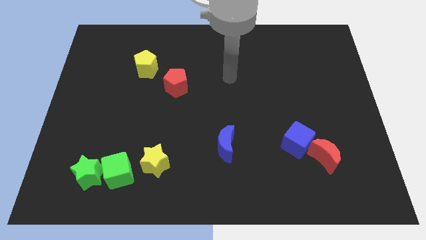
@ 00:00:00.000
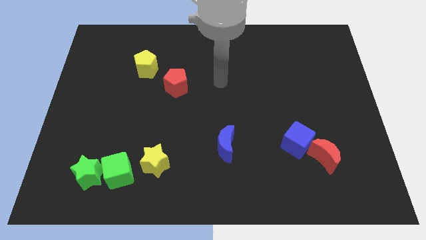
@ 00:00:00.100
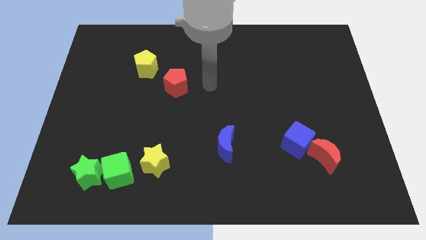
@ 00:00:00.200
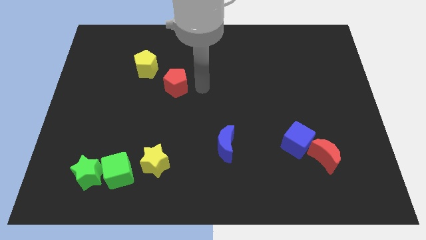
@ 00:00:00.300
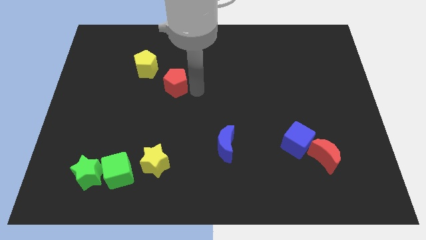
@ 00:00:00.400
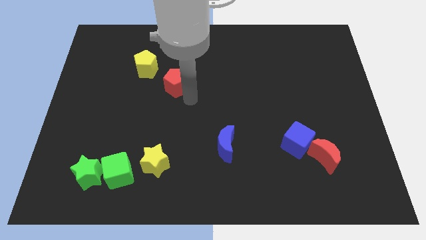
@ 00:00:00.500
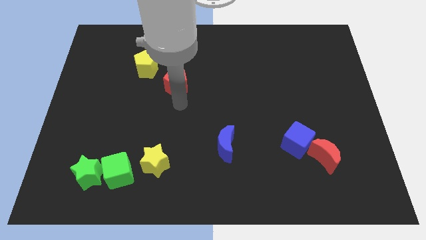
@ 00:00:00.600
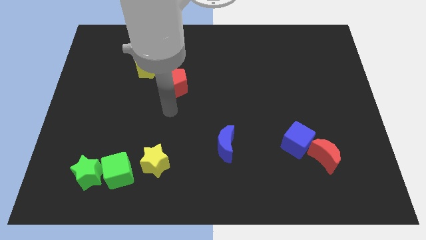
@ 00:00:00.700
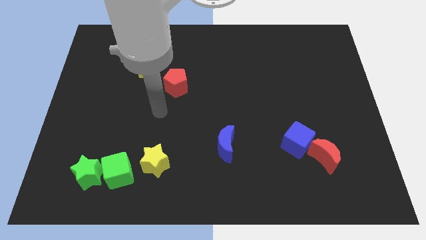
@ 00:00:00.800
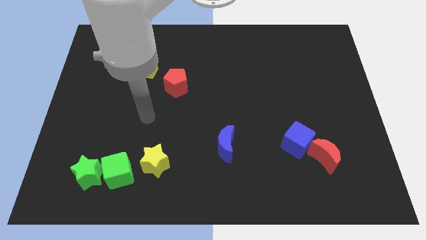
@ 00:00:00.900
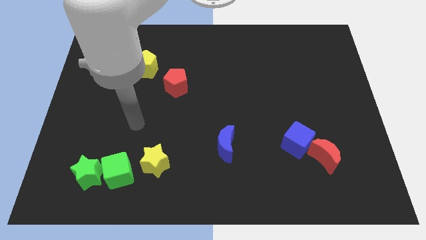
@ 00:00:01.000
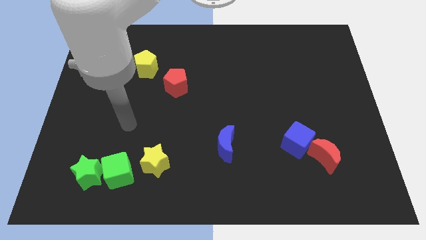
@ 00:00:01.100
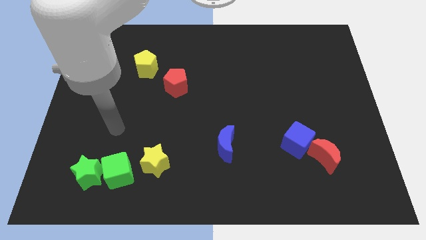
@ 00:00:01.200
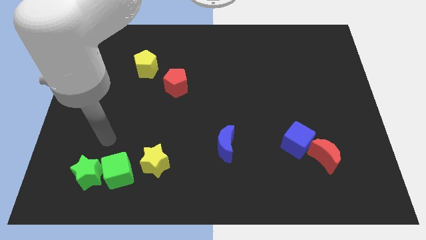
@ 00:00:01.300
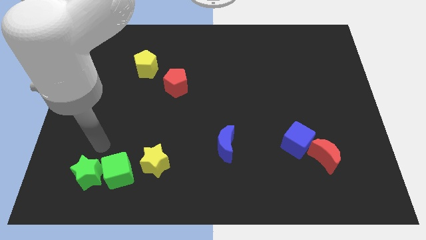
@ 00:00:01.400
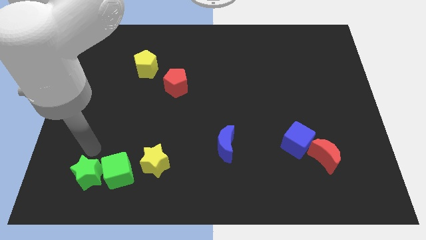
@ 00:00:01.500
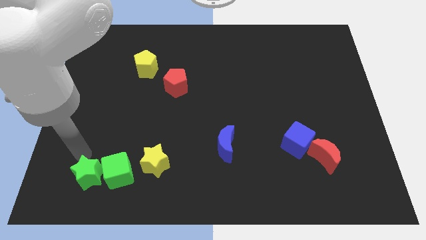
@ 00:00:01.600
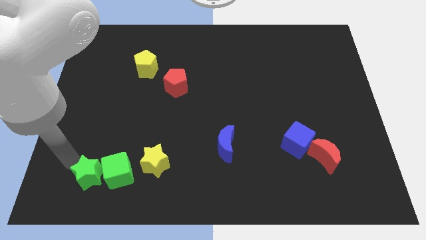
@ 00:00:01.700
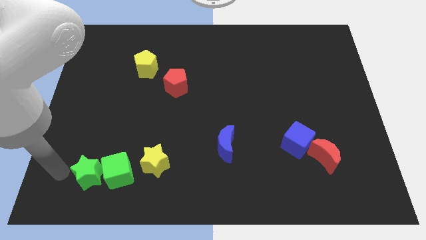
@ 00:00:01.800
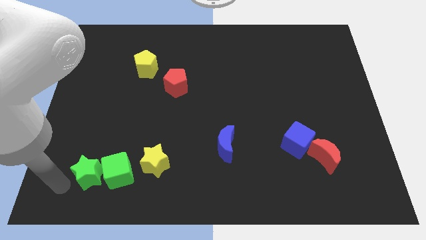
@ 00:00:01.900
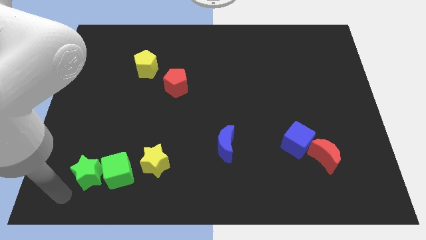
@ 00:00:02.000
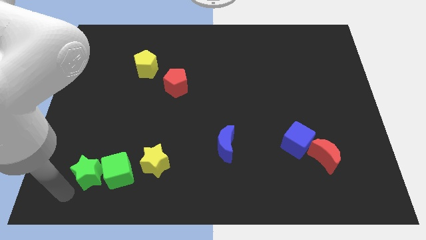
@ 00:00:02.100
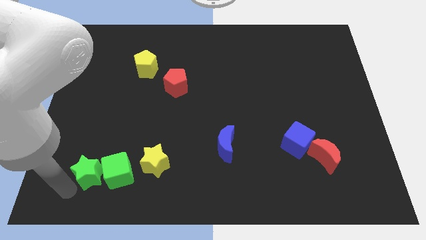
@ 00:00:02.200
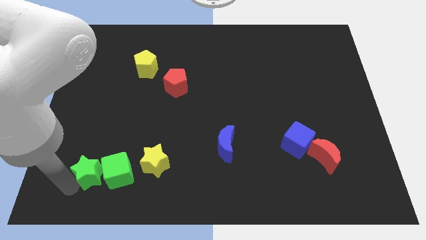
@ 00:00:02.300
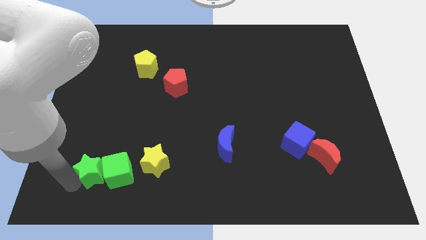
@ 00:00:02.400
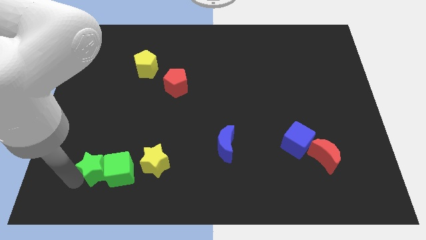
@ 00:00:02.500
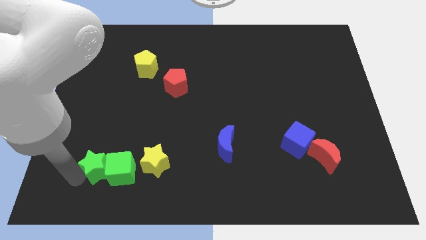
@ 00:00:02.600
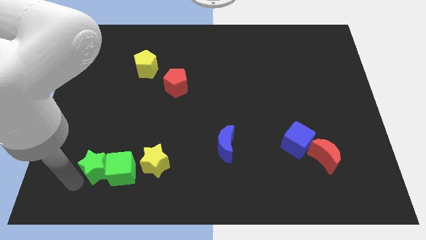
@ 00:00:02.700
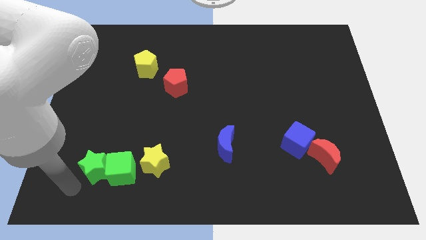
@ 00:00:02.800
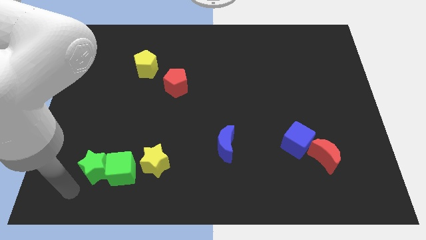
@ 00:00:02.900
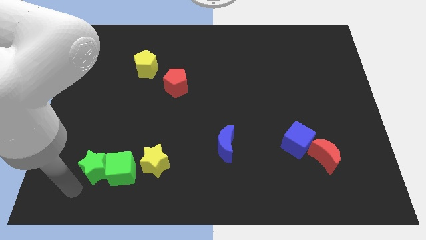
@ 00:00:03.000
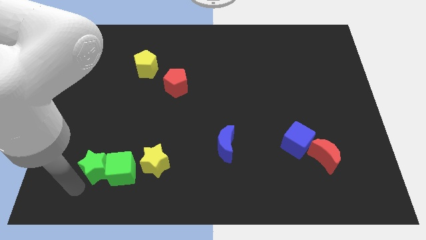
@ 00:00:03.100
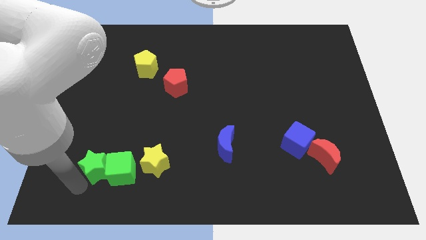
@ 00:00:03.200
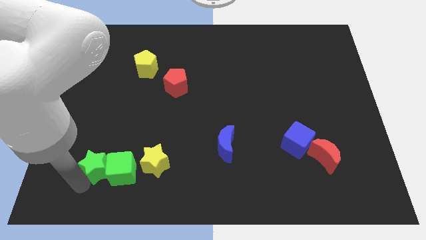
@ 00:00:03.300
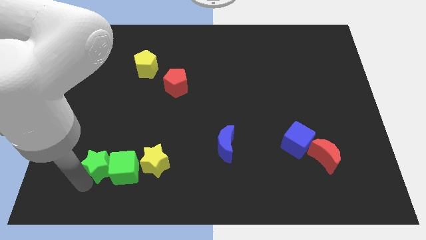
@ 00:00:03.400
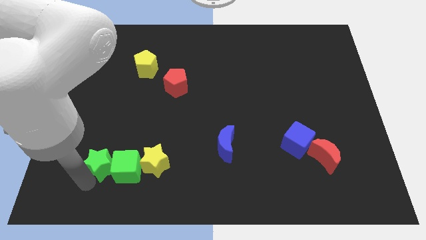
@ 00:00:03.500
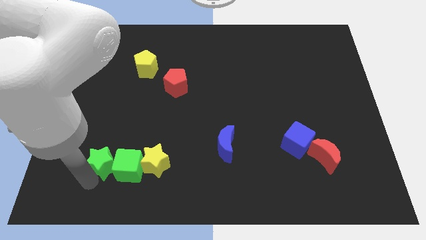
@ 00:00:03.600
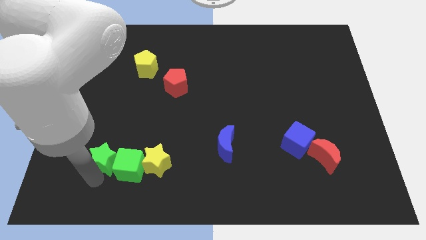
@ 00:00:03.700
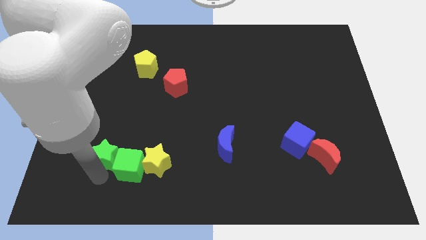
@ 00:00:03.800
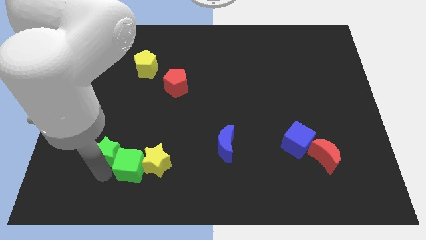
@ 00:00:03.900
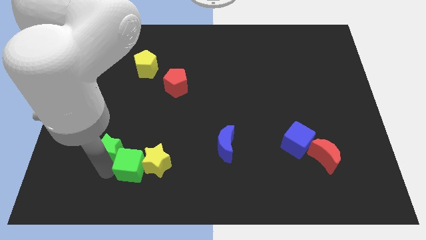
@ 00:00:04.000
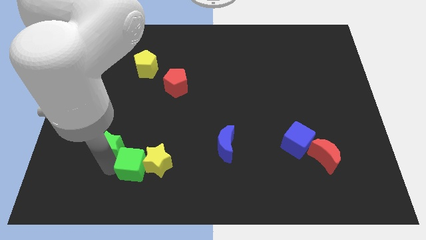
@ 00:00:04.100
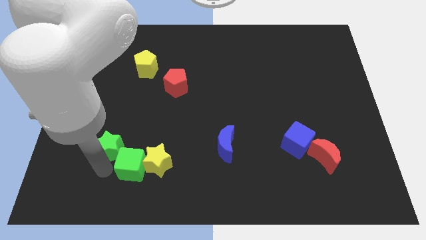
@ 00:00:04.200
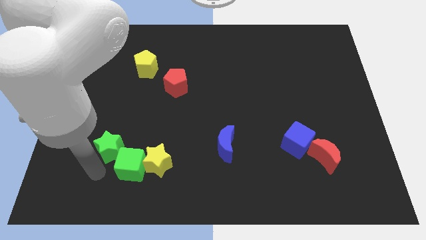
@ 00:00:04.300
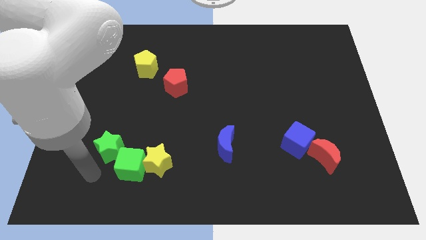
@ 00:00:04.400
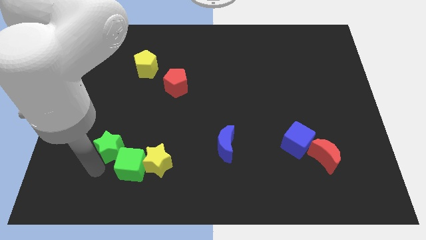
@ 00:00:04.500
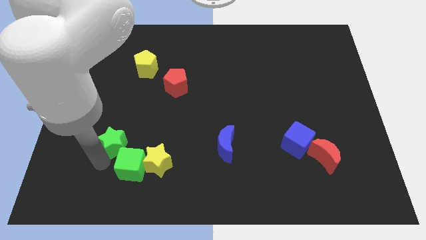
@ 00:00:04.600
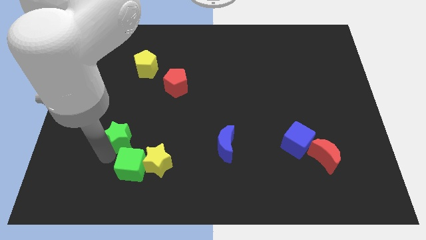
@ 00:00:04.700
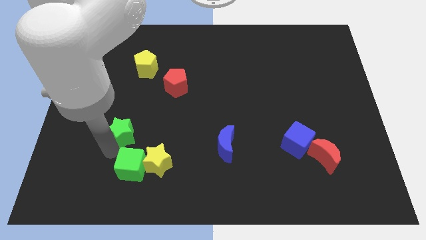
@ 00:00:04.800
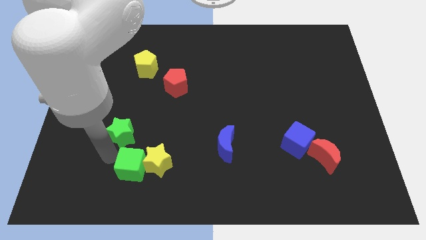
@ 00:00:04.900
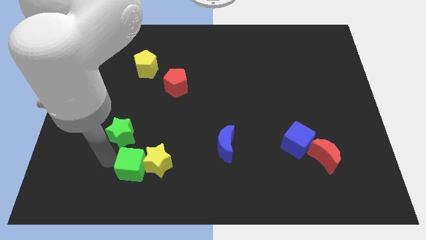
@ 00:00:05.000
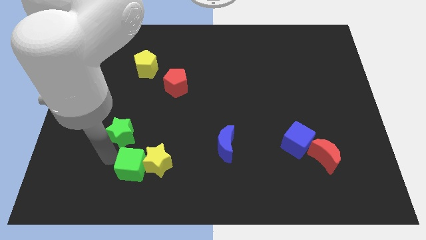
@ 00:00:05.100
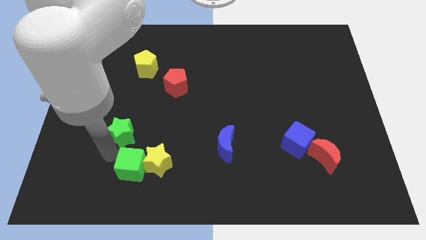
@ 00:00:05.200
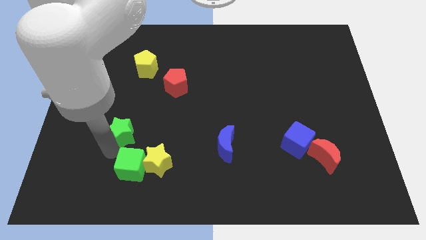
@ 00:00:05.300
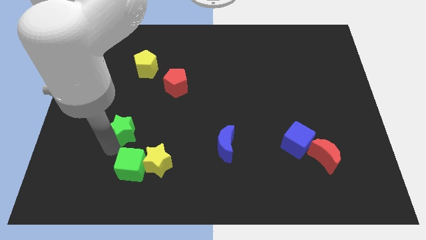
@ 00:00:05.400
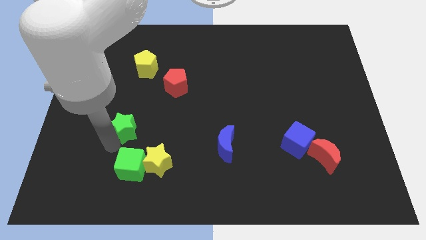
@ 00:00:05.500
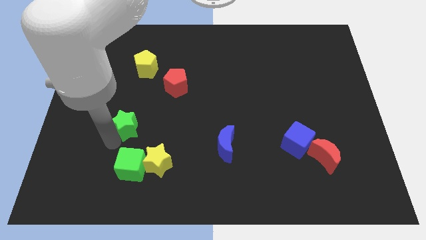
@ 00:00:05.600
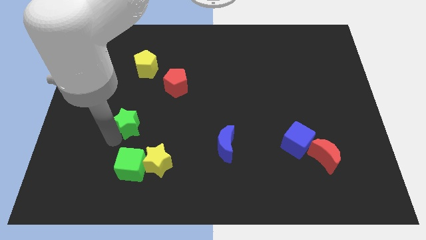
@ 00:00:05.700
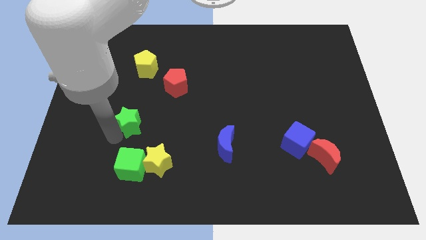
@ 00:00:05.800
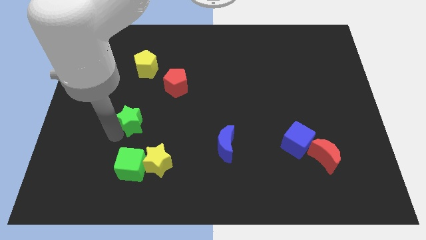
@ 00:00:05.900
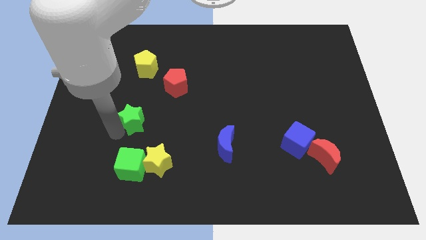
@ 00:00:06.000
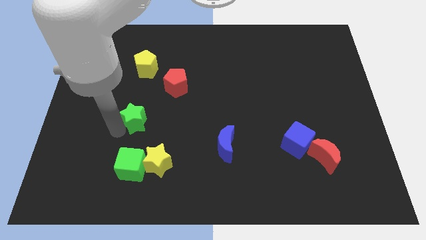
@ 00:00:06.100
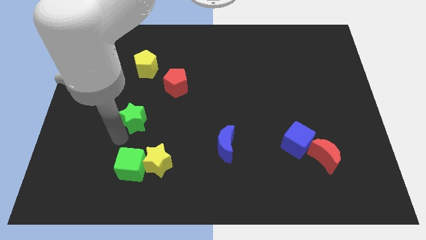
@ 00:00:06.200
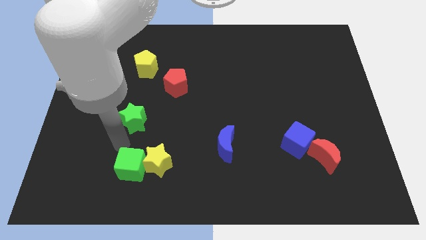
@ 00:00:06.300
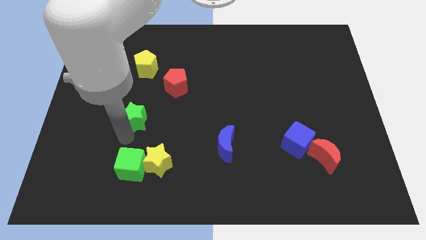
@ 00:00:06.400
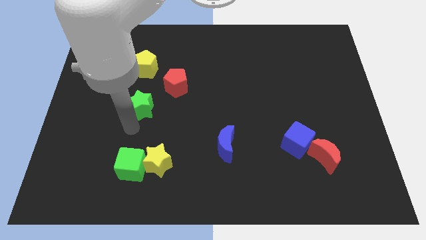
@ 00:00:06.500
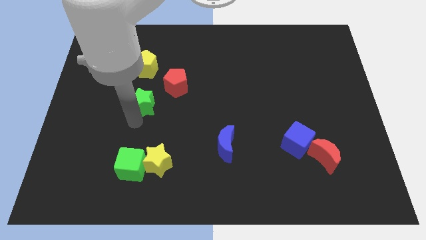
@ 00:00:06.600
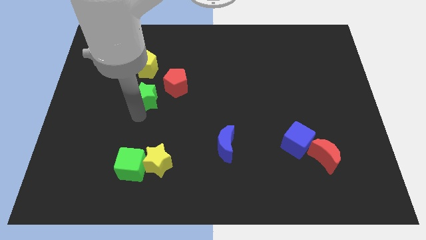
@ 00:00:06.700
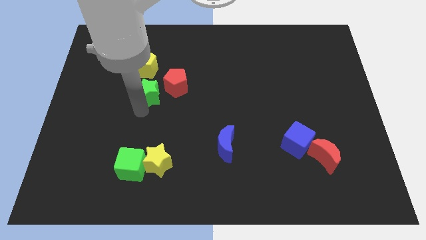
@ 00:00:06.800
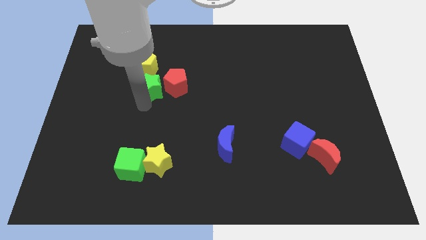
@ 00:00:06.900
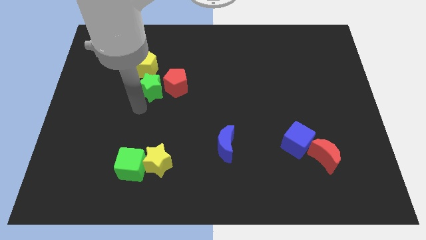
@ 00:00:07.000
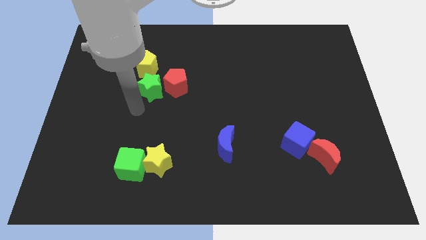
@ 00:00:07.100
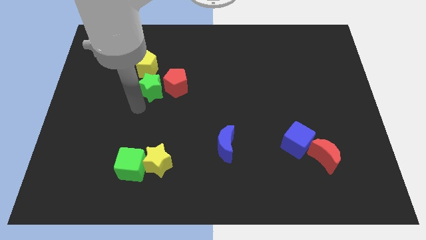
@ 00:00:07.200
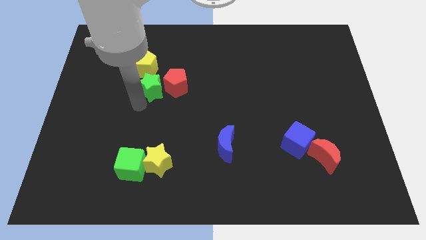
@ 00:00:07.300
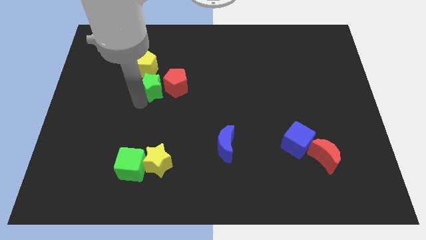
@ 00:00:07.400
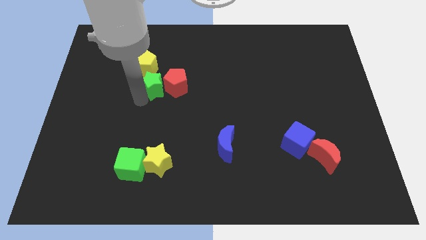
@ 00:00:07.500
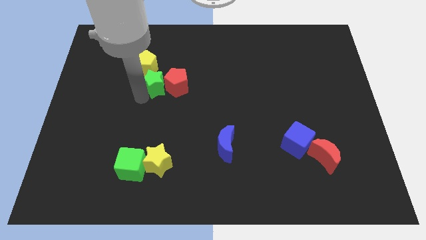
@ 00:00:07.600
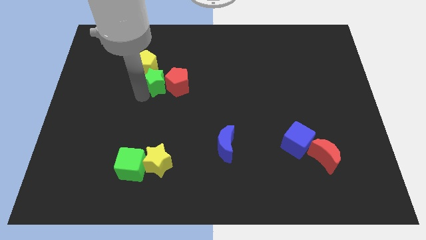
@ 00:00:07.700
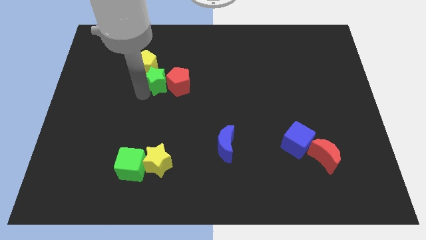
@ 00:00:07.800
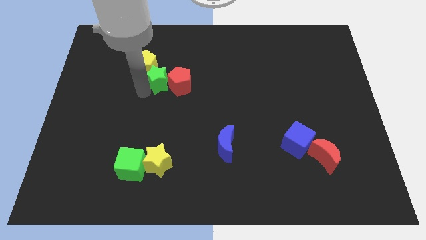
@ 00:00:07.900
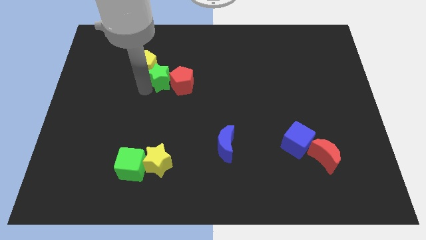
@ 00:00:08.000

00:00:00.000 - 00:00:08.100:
put the green star to the right of the yellow pentagon
